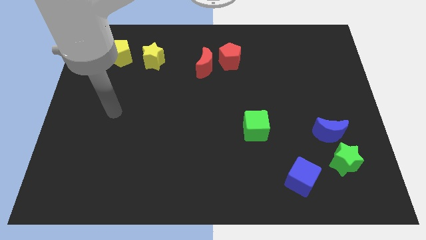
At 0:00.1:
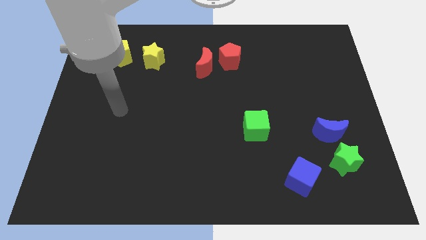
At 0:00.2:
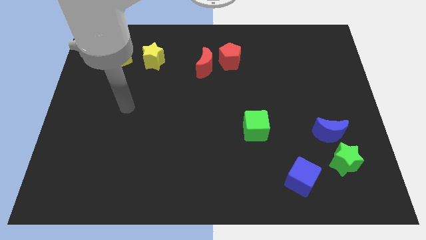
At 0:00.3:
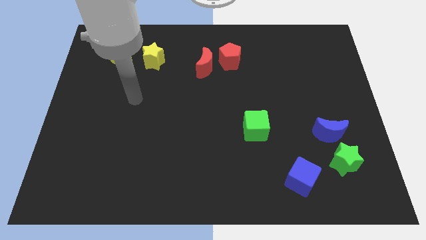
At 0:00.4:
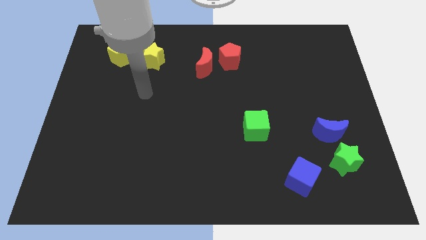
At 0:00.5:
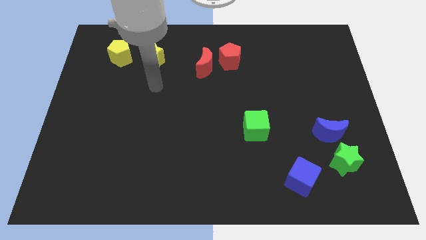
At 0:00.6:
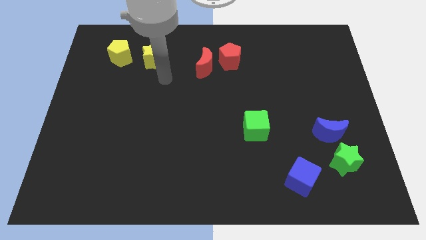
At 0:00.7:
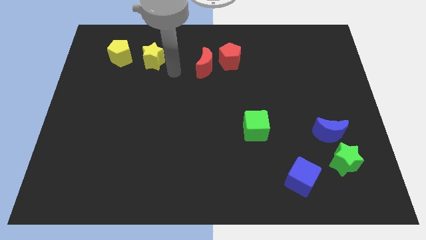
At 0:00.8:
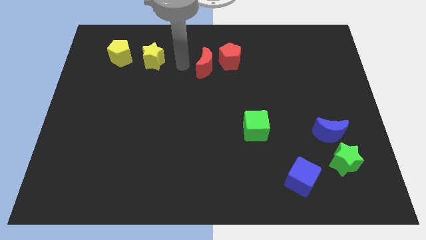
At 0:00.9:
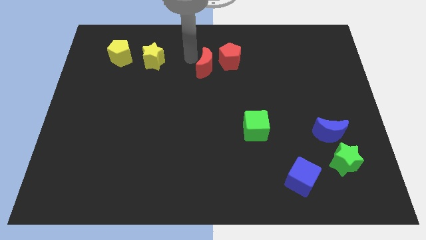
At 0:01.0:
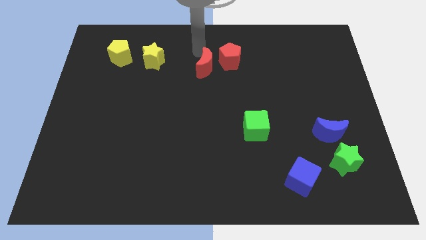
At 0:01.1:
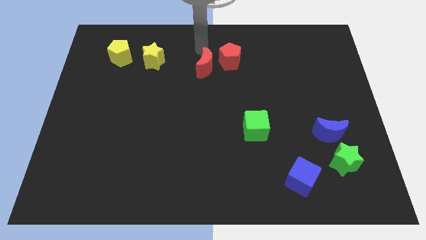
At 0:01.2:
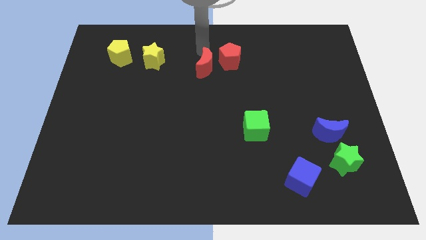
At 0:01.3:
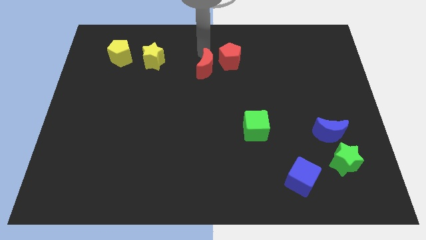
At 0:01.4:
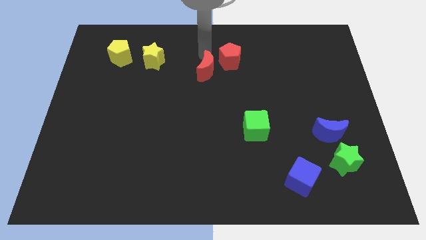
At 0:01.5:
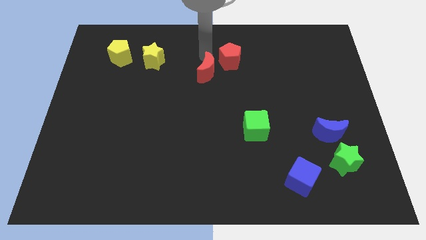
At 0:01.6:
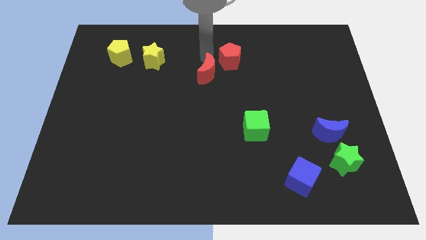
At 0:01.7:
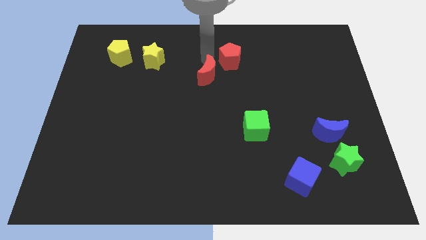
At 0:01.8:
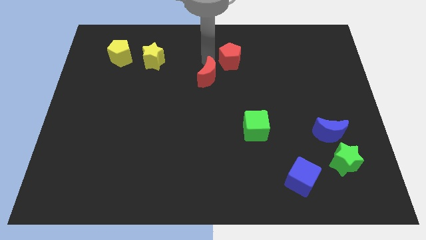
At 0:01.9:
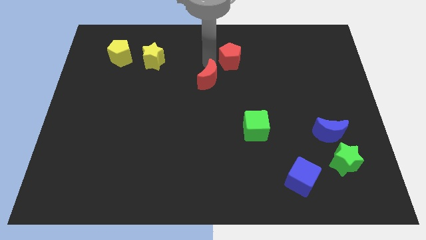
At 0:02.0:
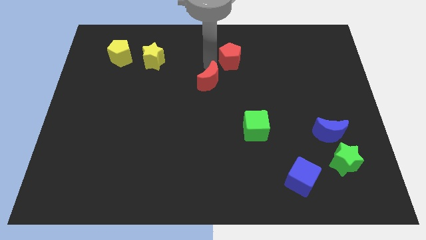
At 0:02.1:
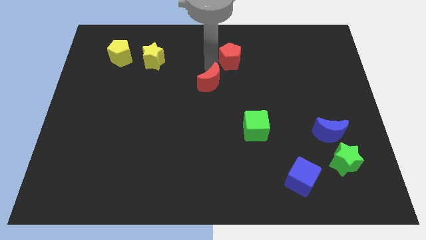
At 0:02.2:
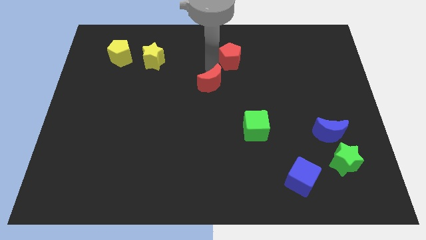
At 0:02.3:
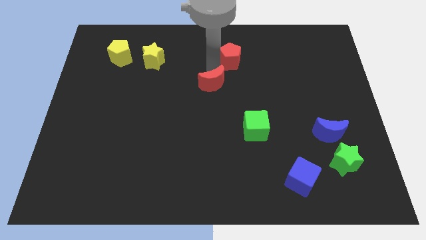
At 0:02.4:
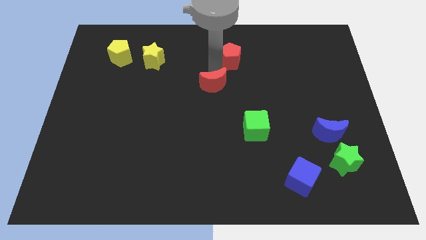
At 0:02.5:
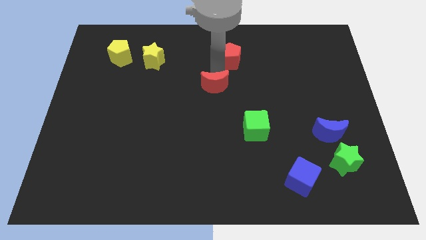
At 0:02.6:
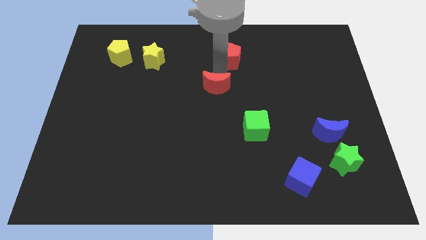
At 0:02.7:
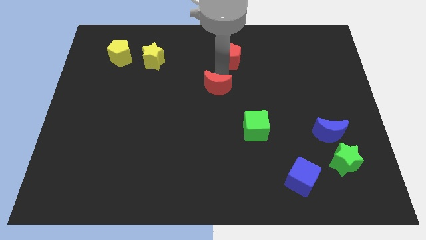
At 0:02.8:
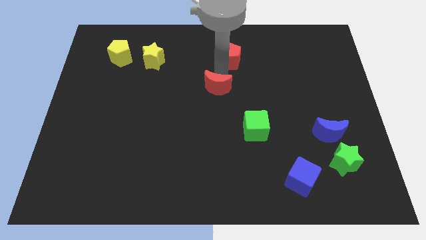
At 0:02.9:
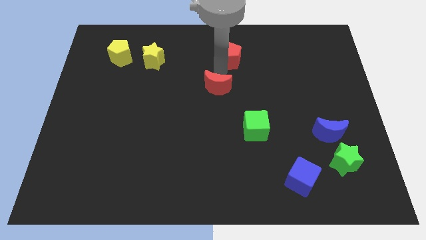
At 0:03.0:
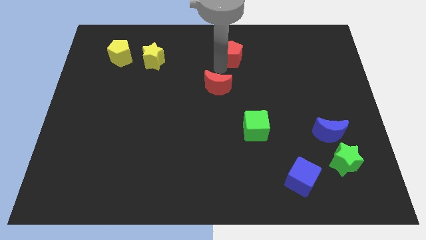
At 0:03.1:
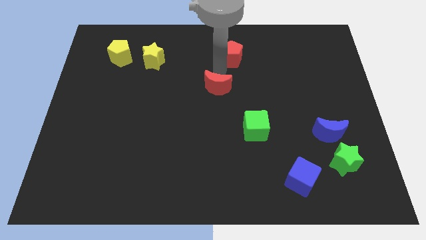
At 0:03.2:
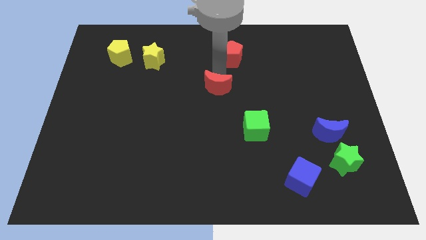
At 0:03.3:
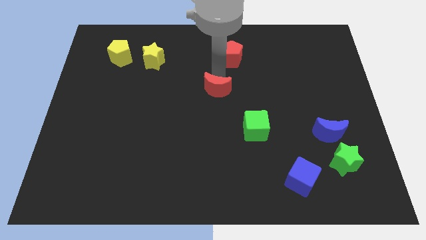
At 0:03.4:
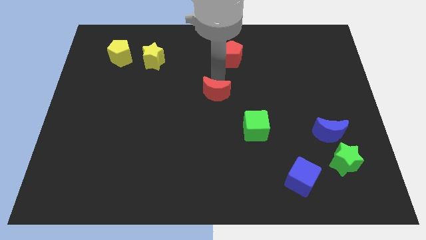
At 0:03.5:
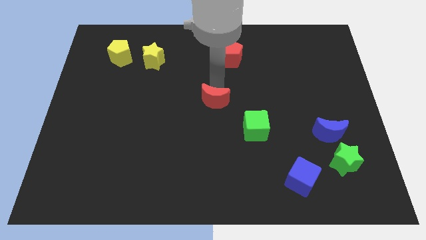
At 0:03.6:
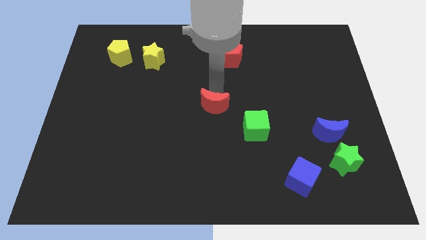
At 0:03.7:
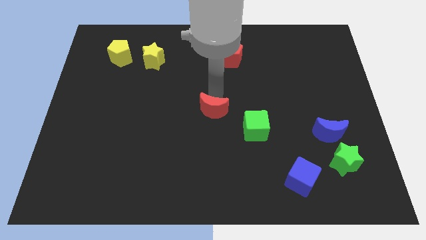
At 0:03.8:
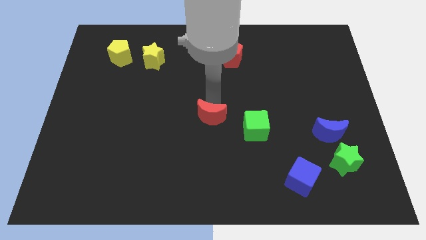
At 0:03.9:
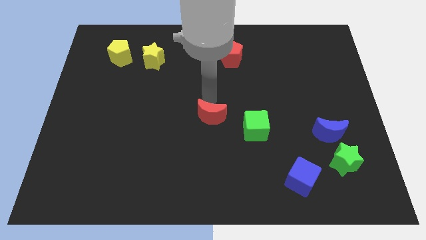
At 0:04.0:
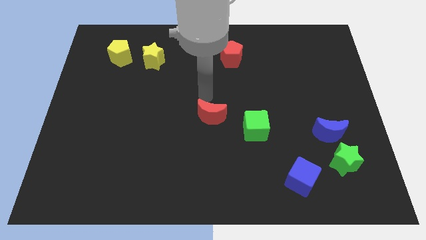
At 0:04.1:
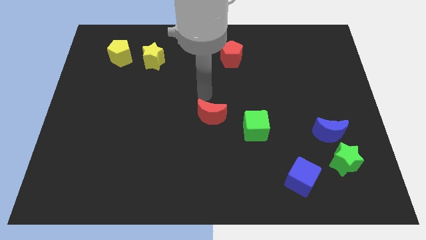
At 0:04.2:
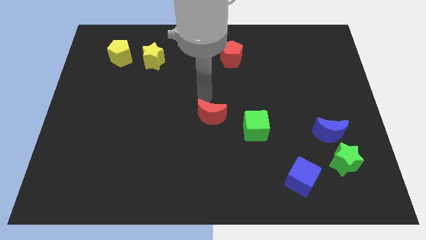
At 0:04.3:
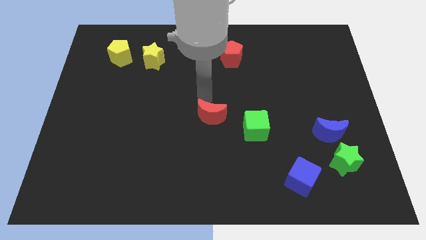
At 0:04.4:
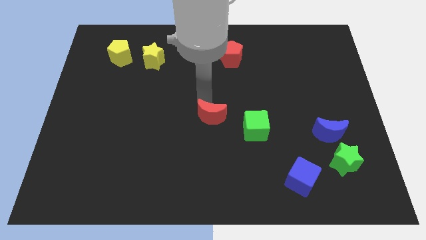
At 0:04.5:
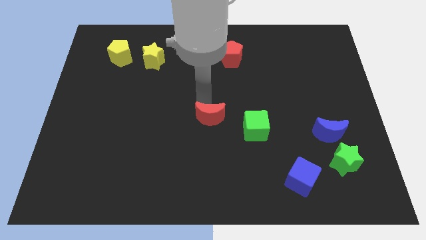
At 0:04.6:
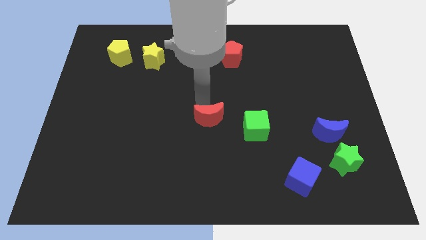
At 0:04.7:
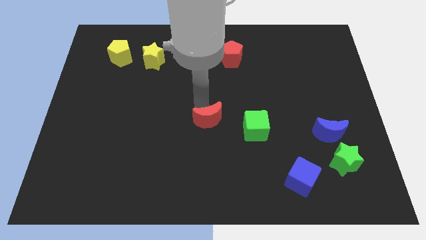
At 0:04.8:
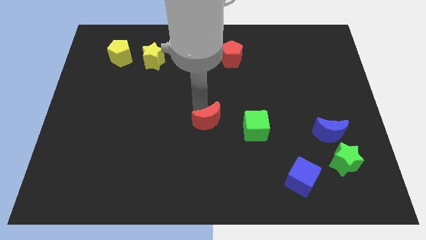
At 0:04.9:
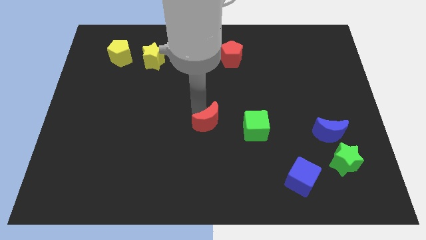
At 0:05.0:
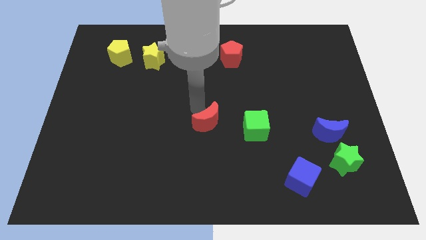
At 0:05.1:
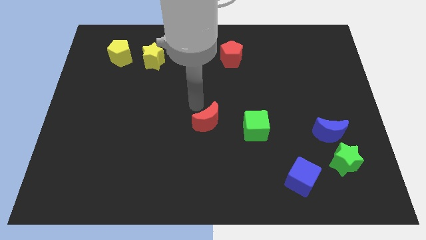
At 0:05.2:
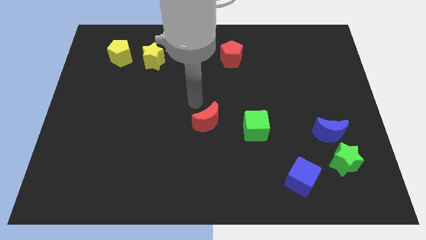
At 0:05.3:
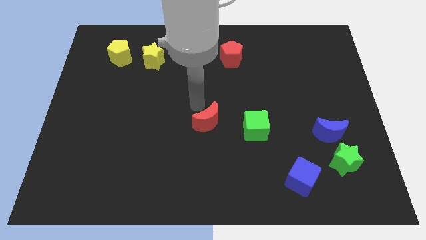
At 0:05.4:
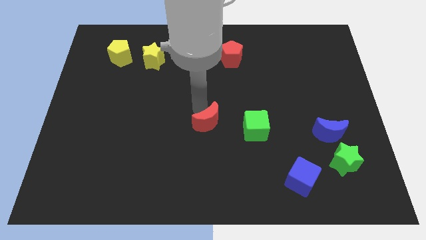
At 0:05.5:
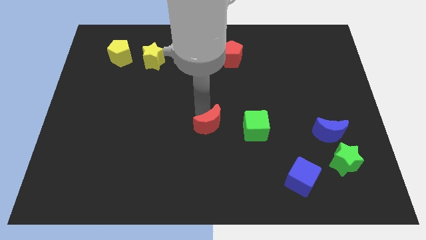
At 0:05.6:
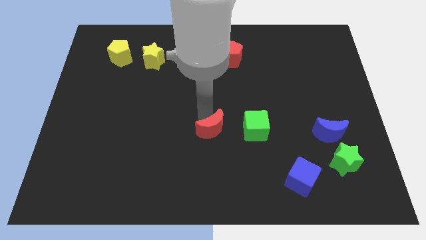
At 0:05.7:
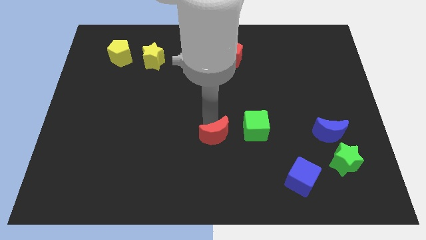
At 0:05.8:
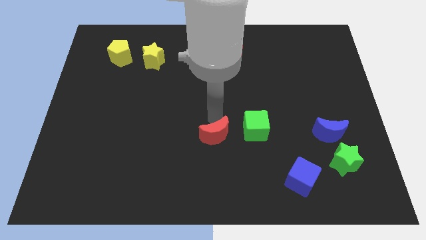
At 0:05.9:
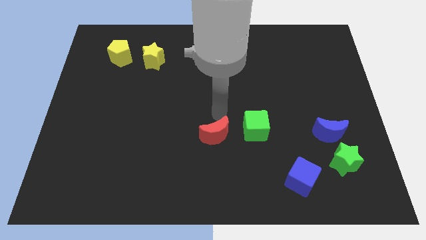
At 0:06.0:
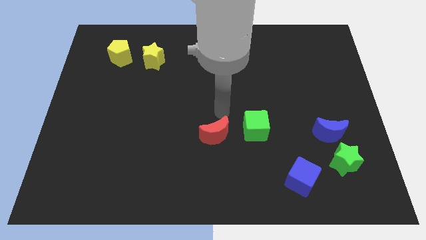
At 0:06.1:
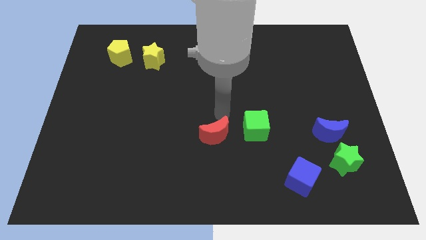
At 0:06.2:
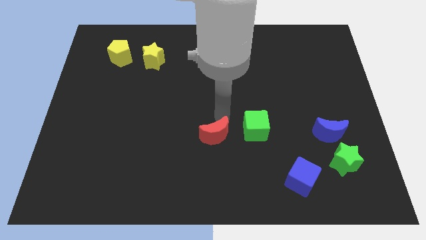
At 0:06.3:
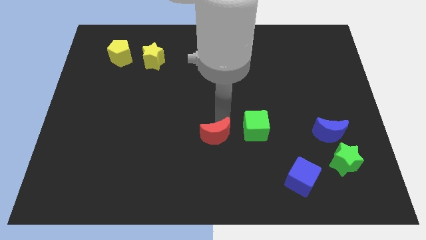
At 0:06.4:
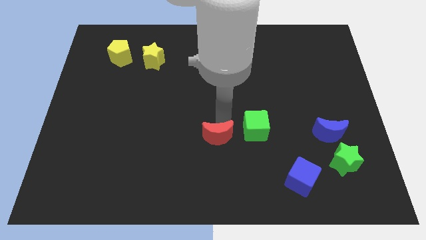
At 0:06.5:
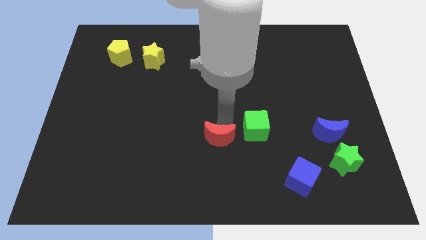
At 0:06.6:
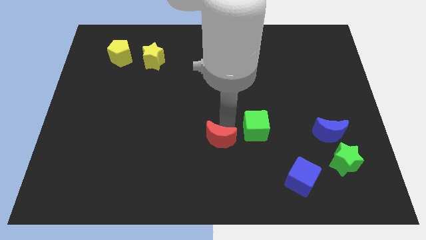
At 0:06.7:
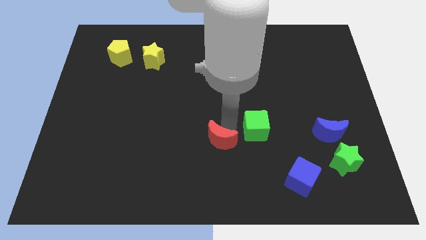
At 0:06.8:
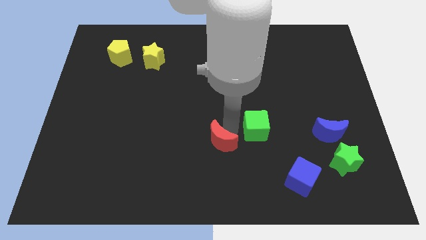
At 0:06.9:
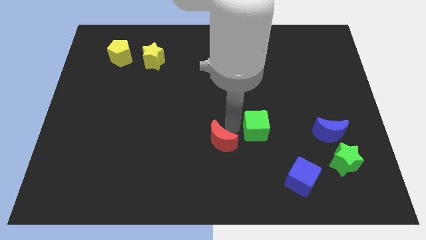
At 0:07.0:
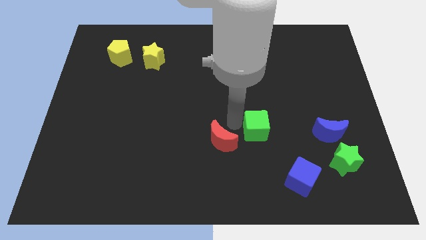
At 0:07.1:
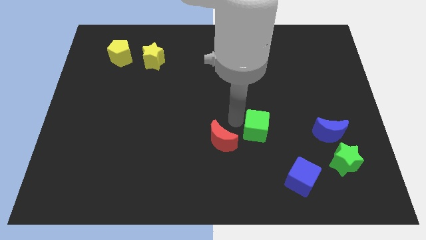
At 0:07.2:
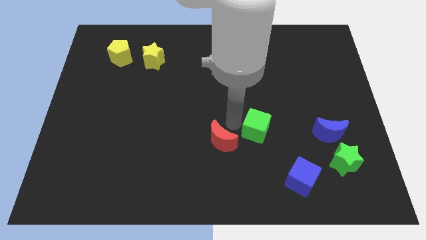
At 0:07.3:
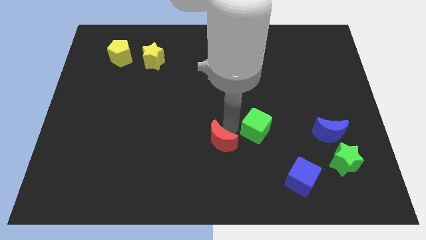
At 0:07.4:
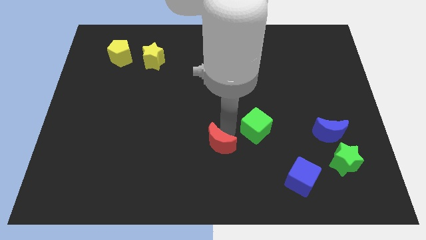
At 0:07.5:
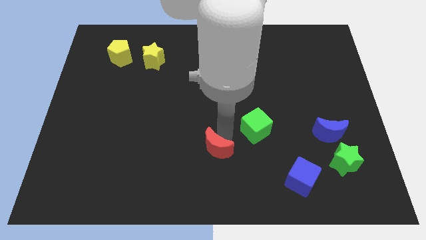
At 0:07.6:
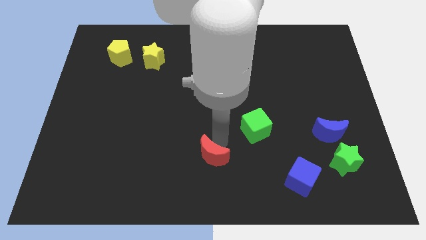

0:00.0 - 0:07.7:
push the red moon to the bottom
